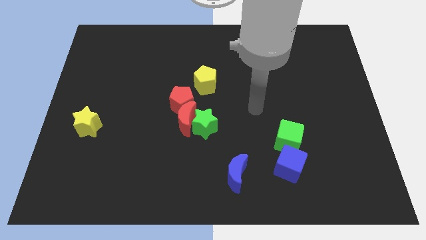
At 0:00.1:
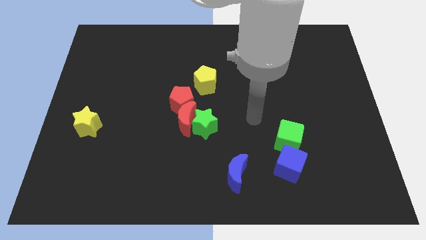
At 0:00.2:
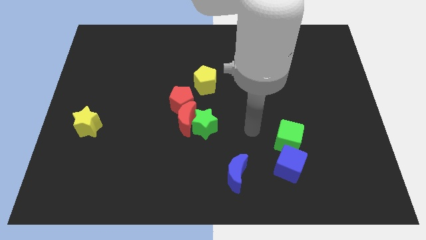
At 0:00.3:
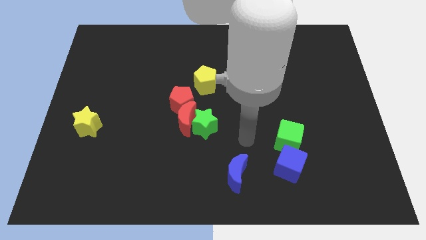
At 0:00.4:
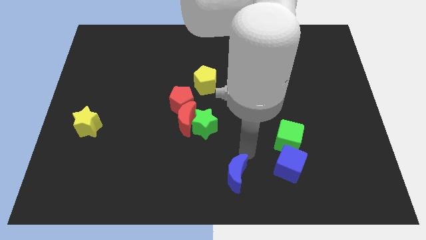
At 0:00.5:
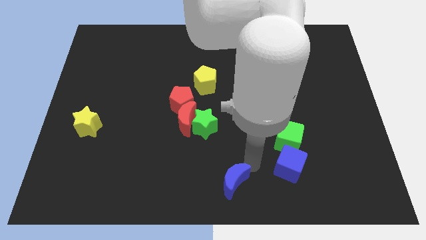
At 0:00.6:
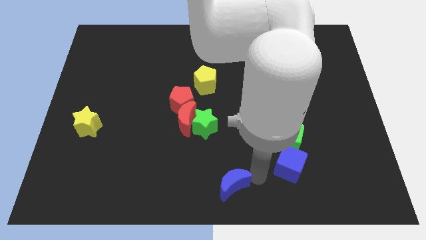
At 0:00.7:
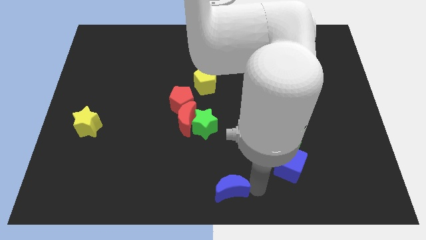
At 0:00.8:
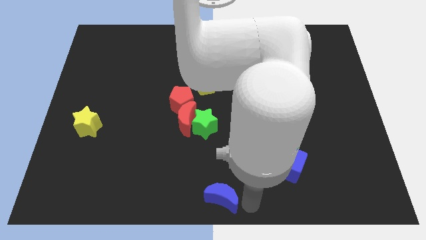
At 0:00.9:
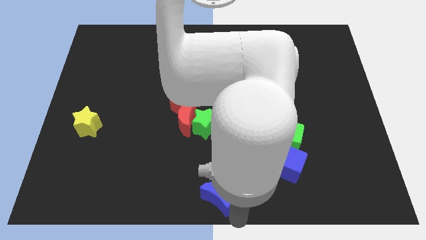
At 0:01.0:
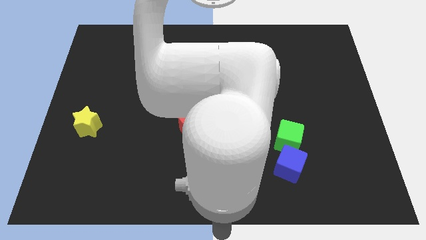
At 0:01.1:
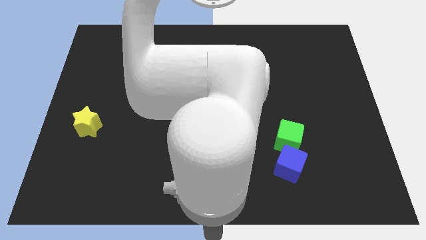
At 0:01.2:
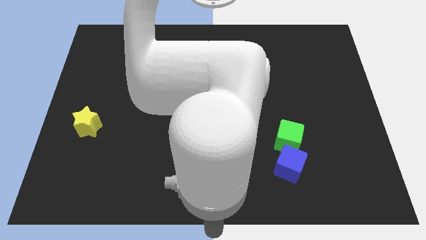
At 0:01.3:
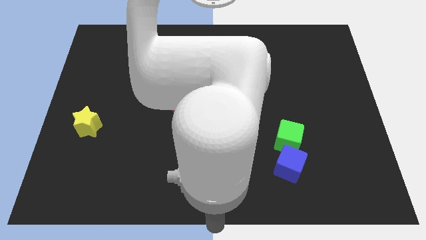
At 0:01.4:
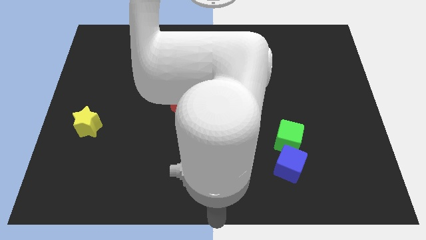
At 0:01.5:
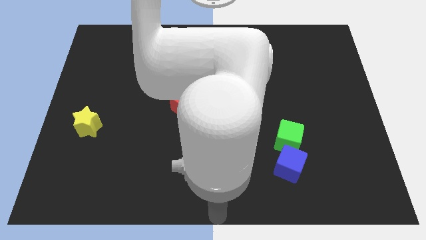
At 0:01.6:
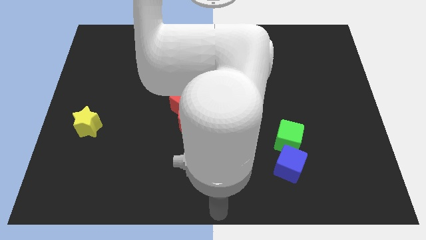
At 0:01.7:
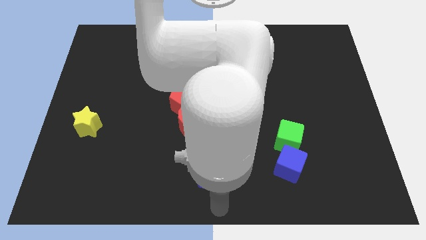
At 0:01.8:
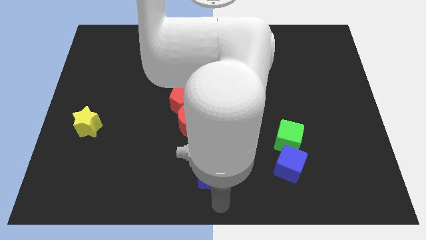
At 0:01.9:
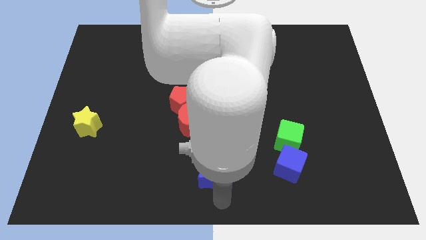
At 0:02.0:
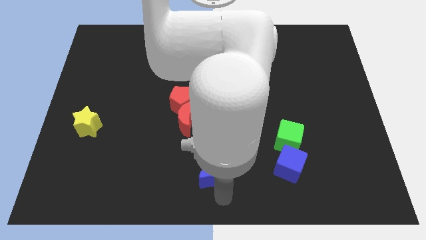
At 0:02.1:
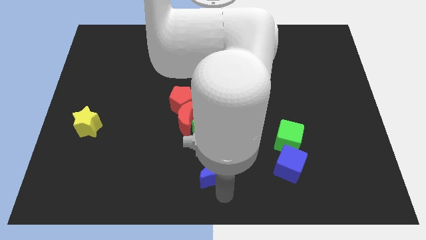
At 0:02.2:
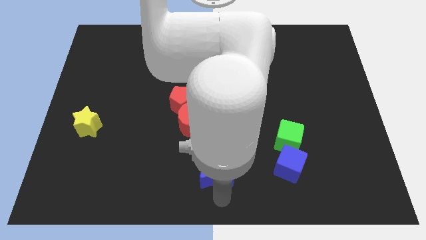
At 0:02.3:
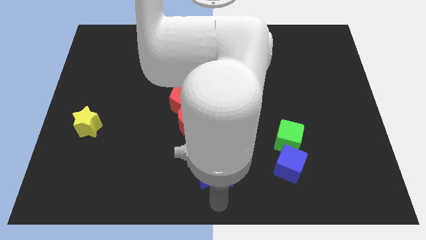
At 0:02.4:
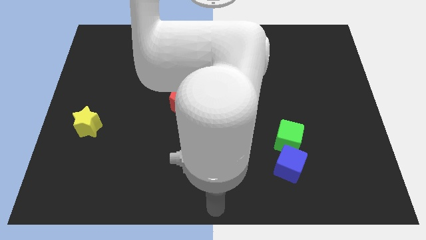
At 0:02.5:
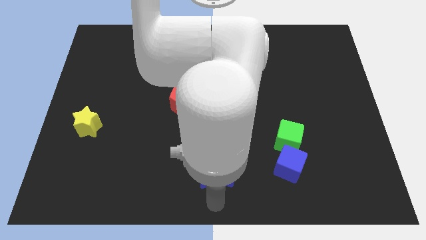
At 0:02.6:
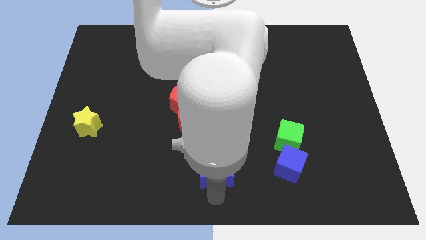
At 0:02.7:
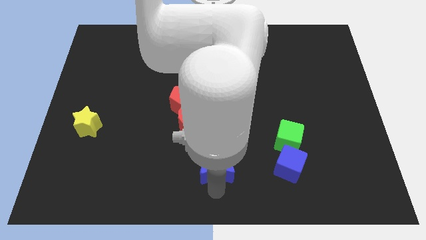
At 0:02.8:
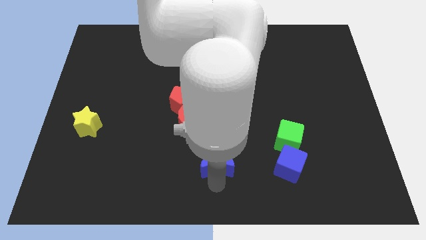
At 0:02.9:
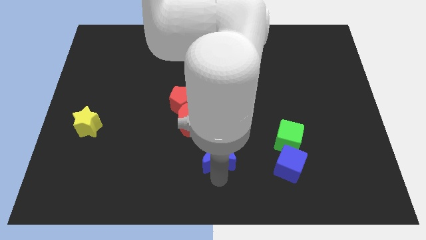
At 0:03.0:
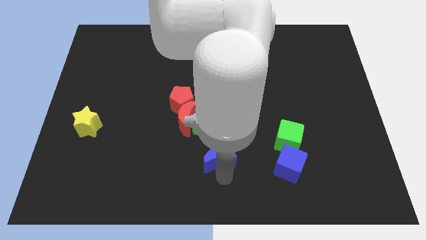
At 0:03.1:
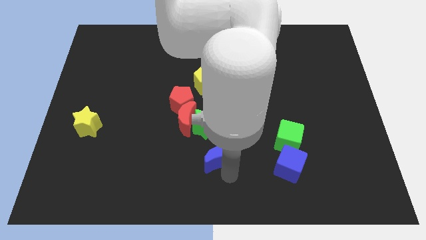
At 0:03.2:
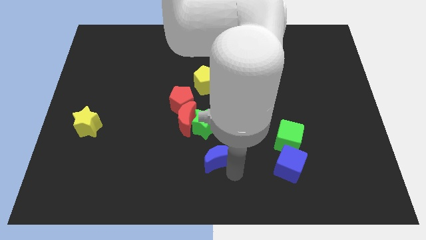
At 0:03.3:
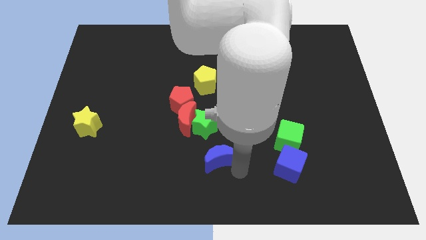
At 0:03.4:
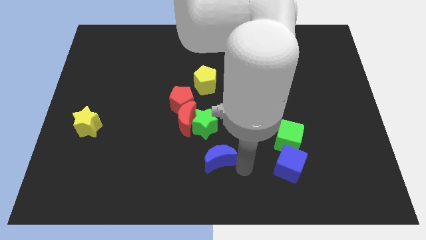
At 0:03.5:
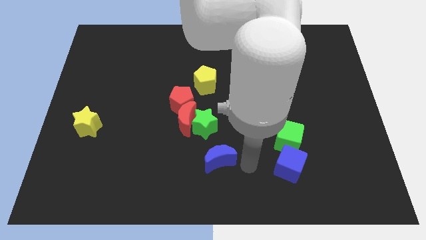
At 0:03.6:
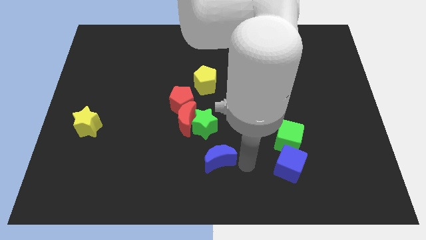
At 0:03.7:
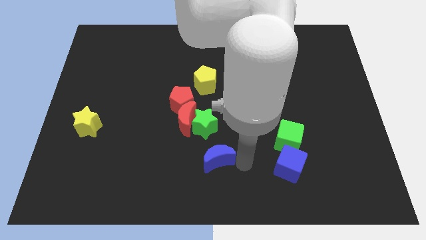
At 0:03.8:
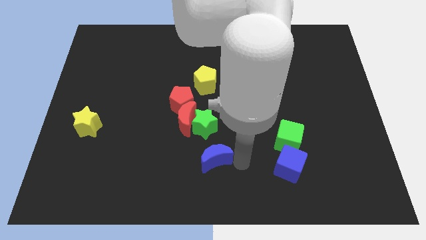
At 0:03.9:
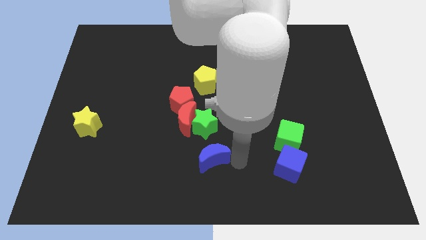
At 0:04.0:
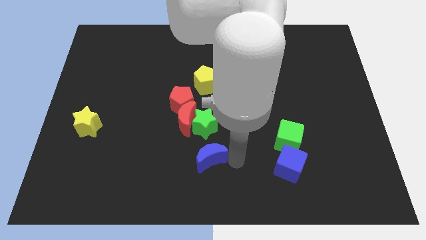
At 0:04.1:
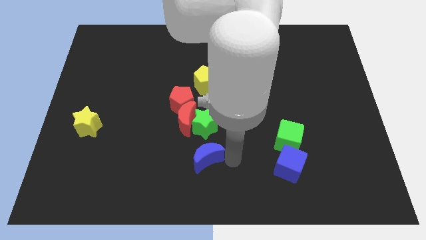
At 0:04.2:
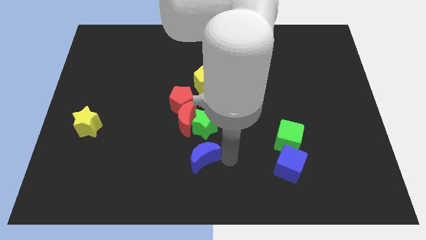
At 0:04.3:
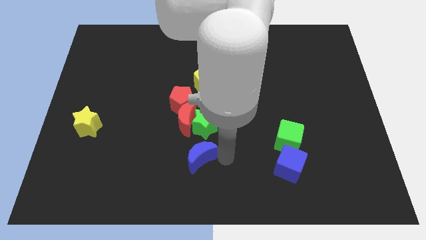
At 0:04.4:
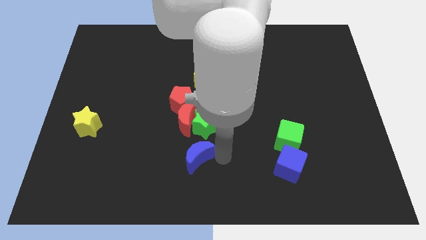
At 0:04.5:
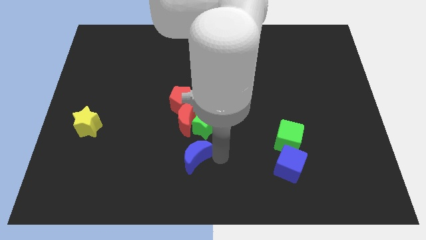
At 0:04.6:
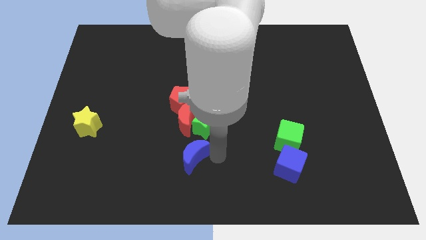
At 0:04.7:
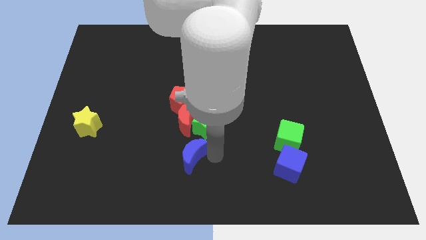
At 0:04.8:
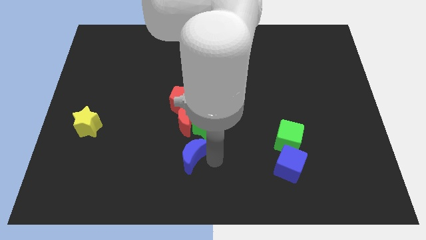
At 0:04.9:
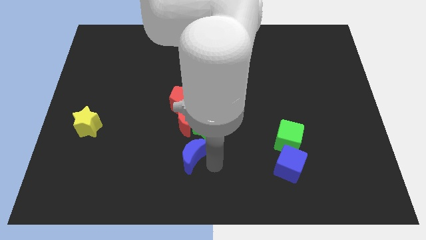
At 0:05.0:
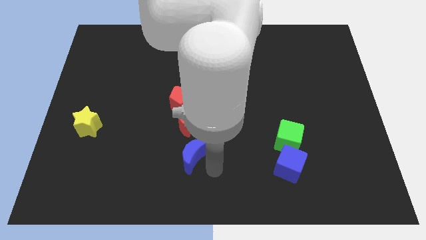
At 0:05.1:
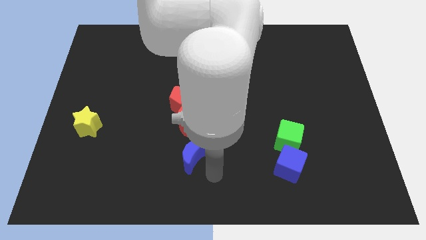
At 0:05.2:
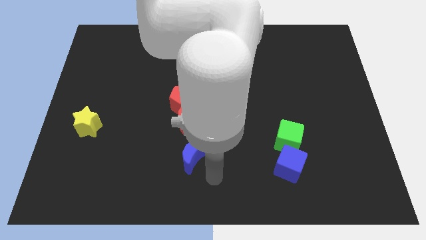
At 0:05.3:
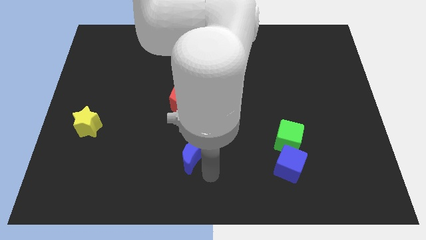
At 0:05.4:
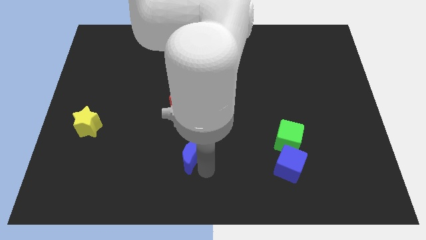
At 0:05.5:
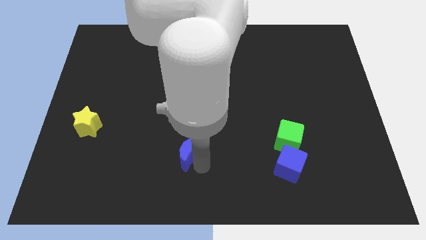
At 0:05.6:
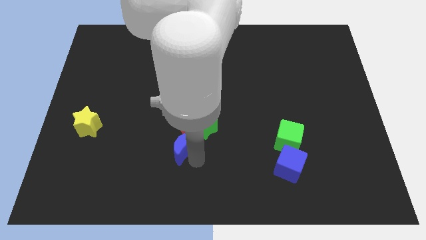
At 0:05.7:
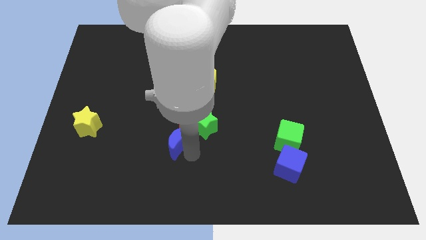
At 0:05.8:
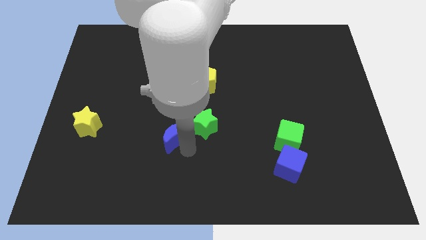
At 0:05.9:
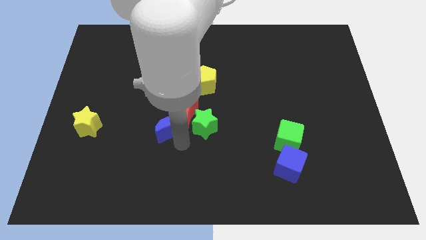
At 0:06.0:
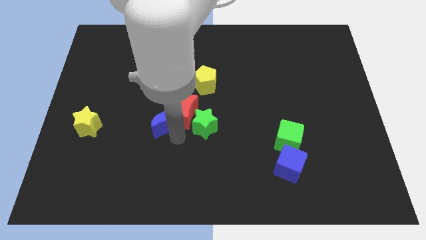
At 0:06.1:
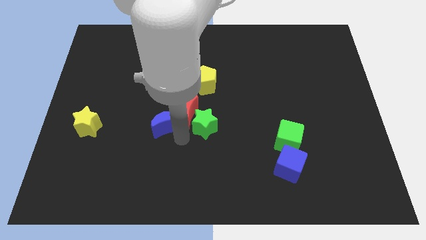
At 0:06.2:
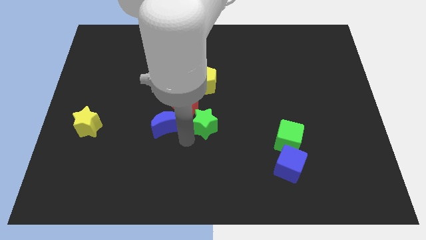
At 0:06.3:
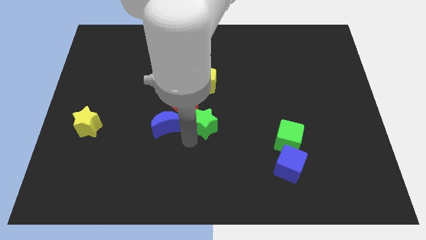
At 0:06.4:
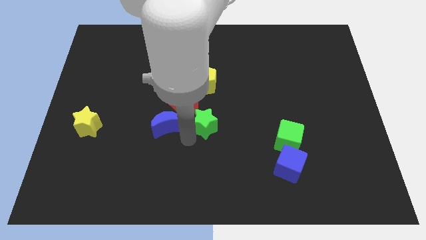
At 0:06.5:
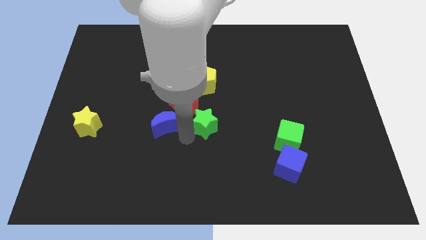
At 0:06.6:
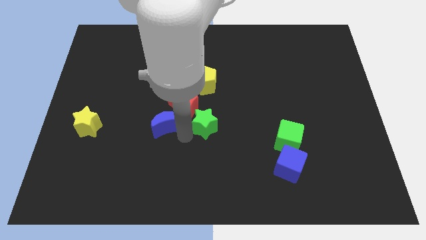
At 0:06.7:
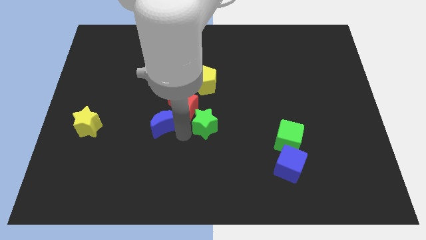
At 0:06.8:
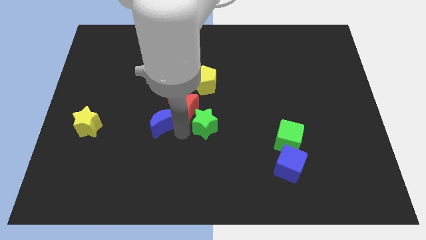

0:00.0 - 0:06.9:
push the blue moon diagonally upwards and to the left

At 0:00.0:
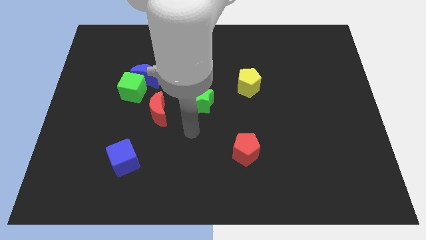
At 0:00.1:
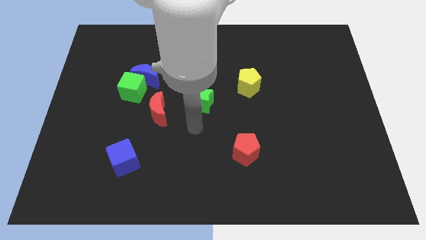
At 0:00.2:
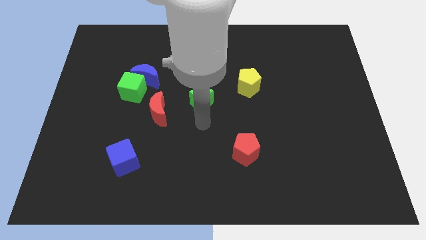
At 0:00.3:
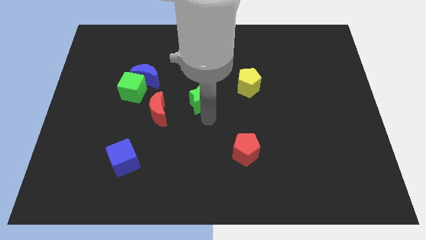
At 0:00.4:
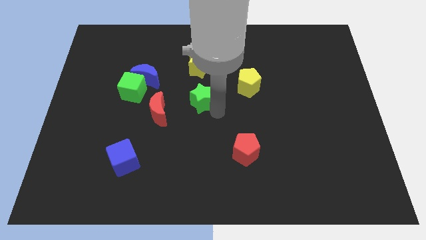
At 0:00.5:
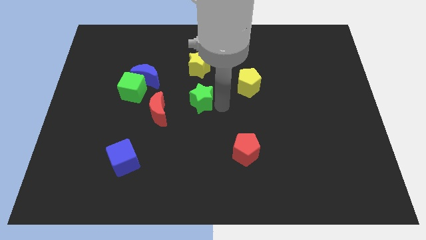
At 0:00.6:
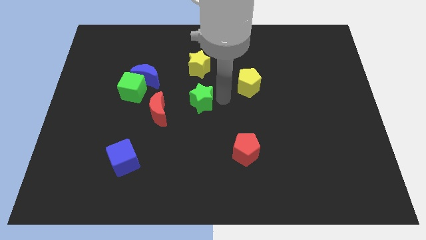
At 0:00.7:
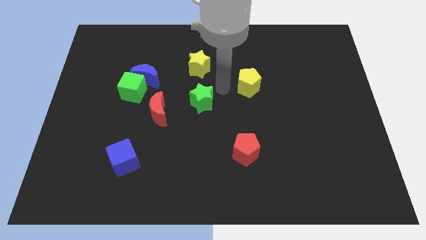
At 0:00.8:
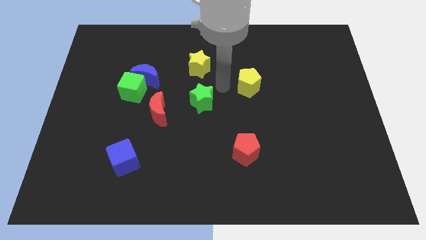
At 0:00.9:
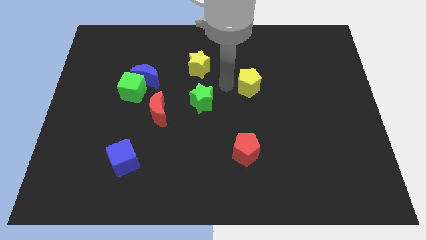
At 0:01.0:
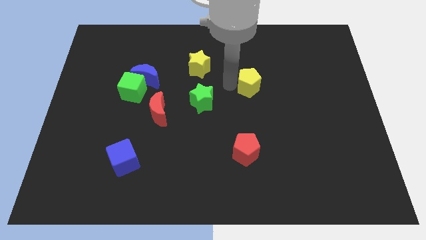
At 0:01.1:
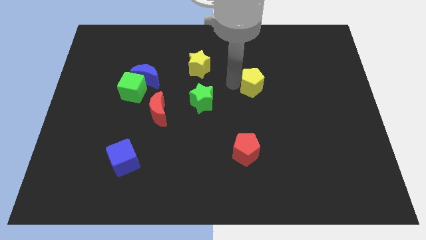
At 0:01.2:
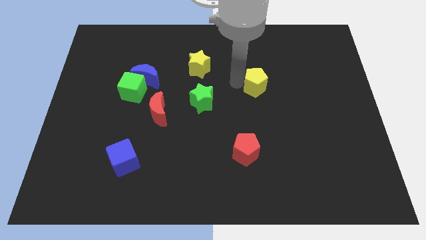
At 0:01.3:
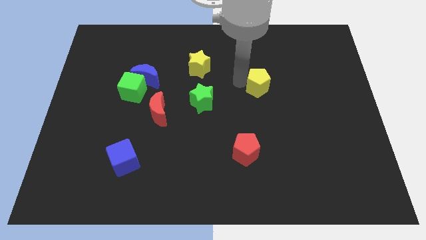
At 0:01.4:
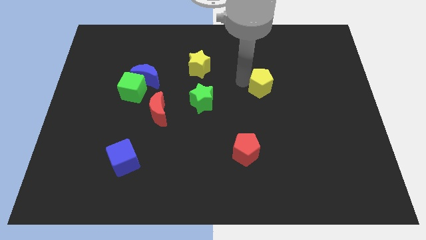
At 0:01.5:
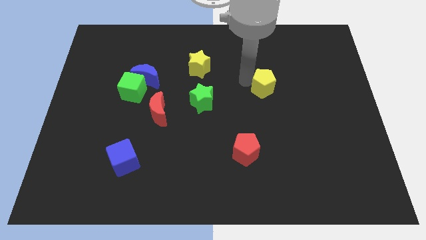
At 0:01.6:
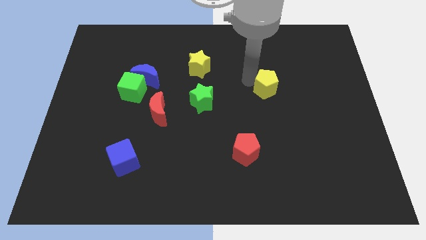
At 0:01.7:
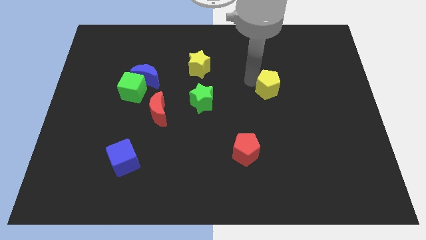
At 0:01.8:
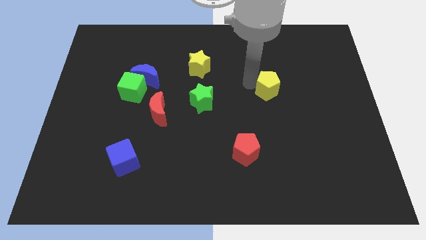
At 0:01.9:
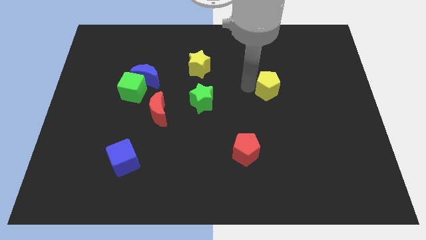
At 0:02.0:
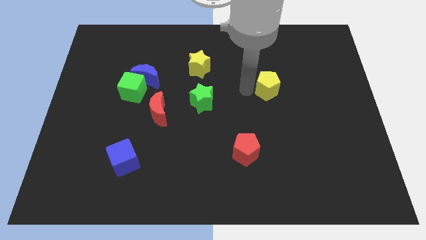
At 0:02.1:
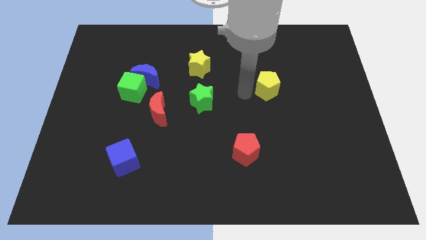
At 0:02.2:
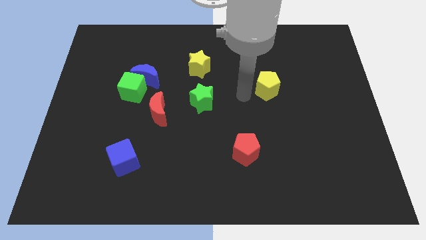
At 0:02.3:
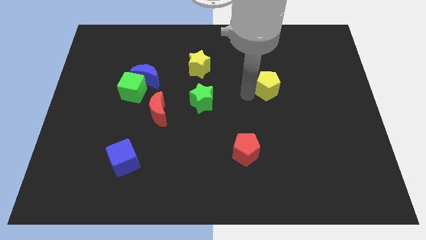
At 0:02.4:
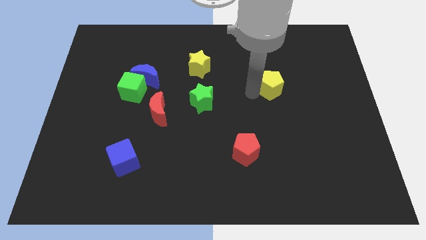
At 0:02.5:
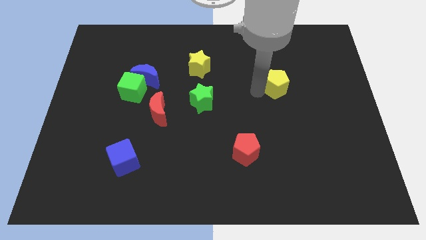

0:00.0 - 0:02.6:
push the yellow pentagon to the right slightly
